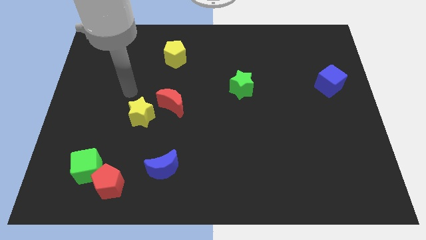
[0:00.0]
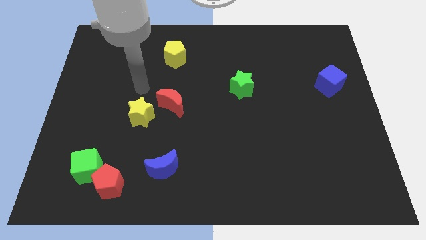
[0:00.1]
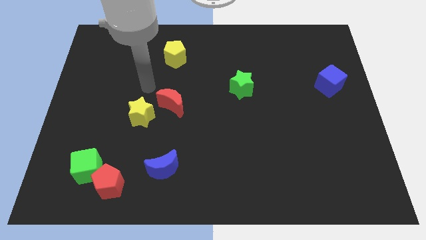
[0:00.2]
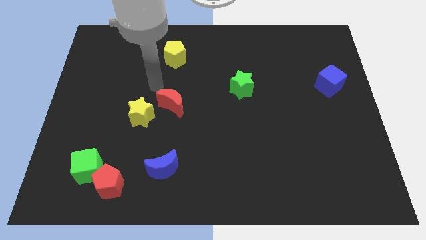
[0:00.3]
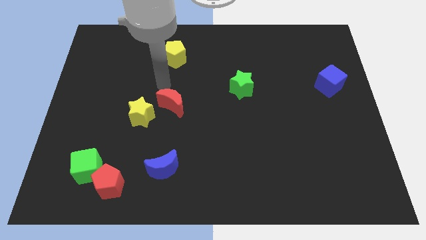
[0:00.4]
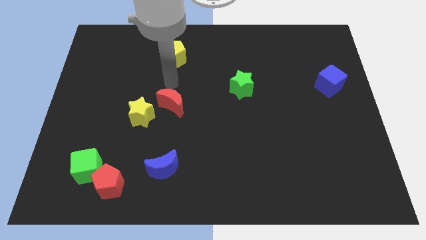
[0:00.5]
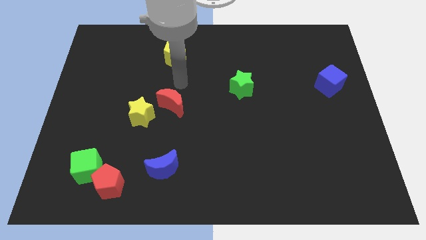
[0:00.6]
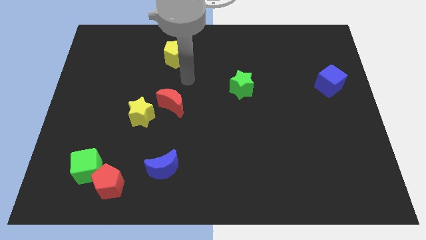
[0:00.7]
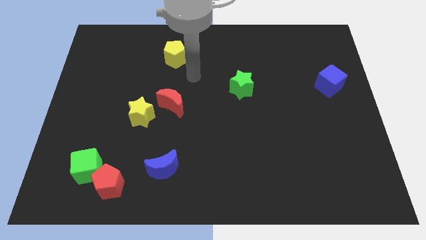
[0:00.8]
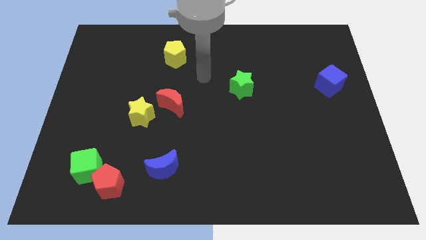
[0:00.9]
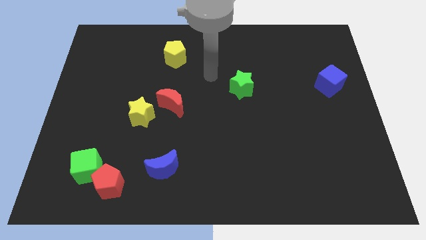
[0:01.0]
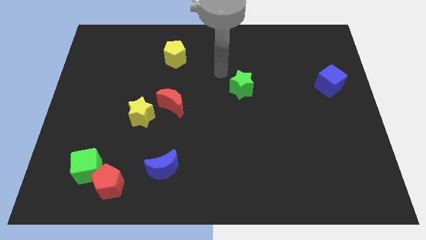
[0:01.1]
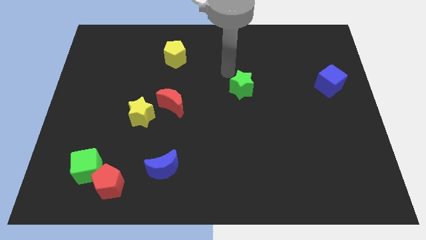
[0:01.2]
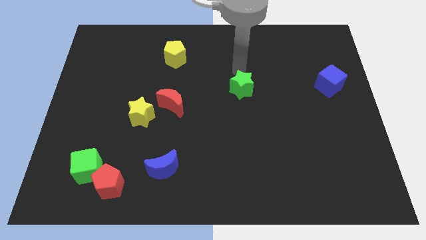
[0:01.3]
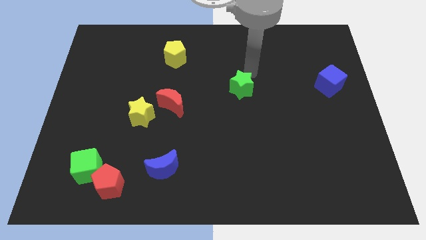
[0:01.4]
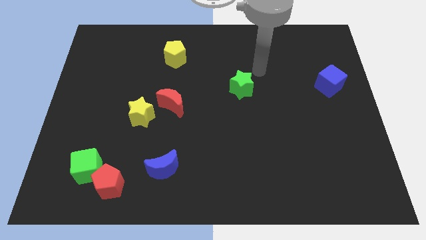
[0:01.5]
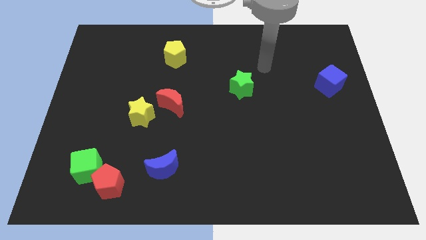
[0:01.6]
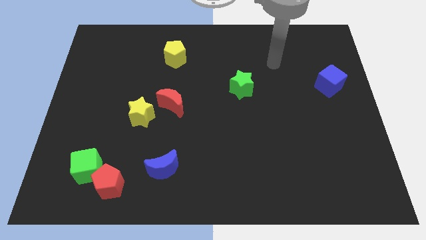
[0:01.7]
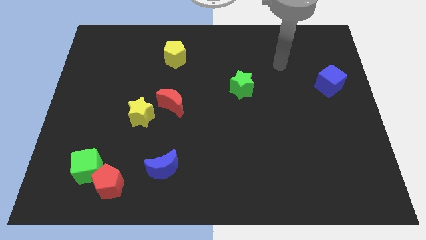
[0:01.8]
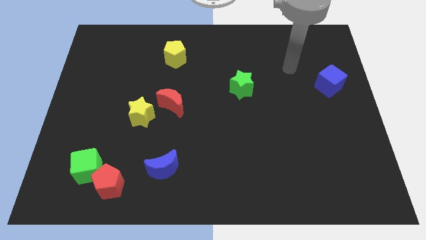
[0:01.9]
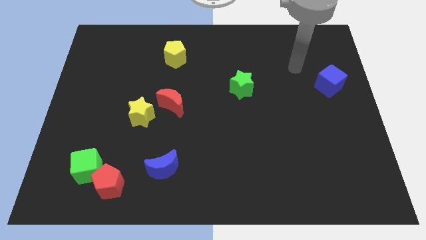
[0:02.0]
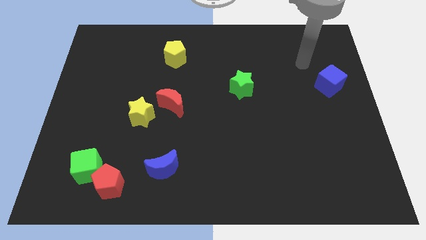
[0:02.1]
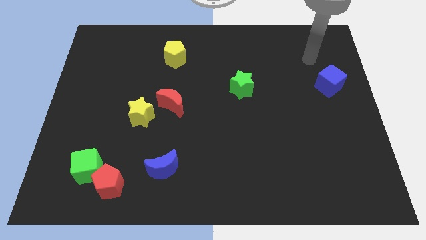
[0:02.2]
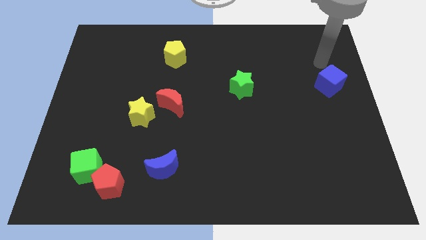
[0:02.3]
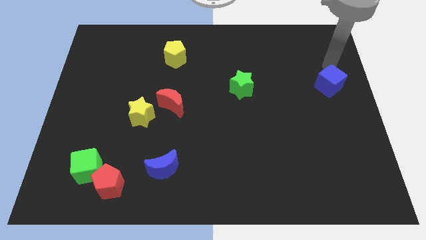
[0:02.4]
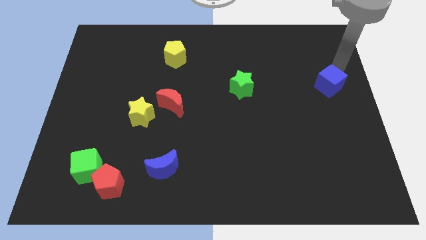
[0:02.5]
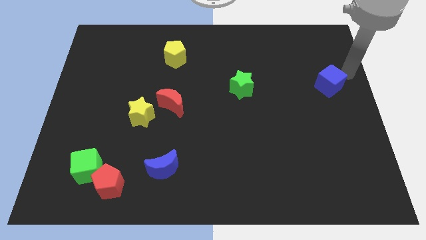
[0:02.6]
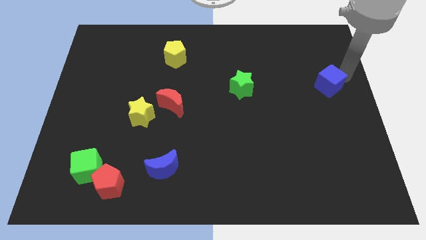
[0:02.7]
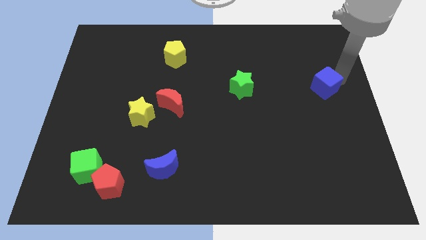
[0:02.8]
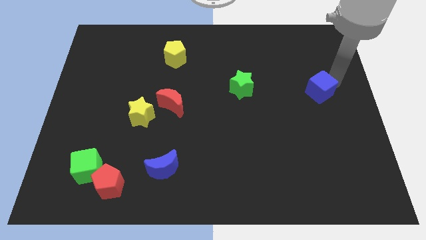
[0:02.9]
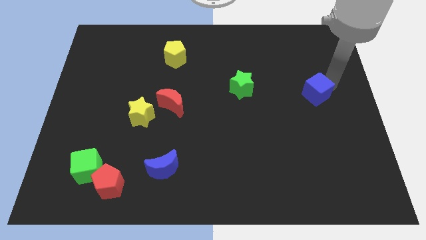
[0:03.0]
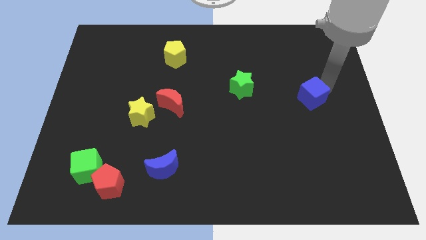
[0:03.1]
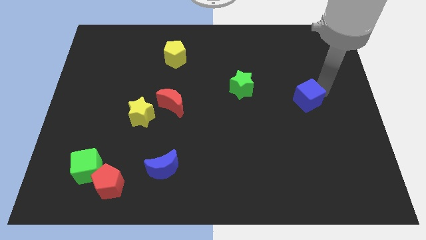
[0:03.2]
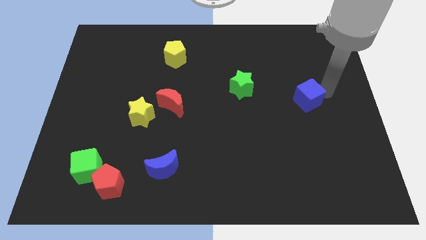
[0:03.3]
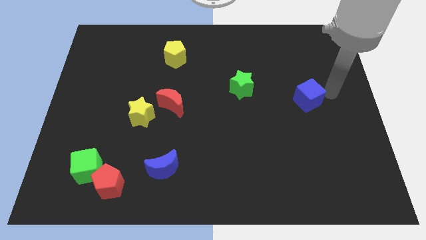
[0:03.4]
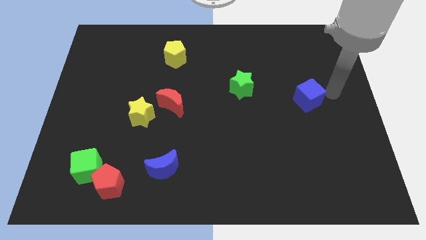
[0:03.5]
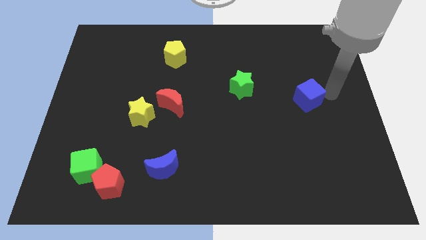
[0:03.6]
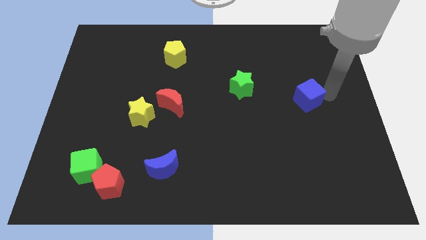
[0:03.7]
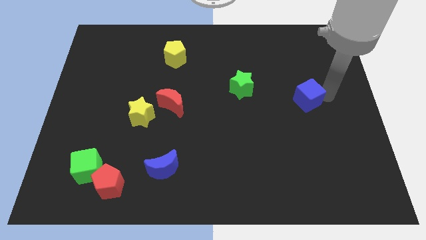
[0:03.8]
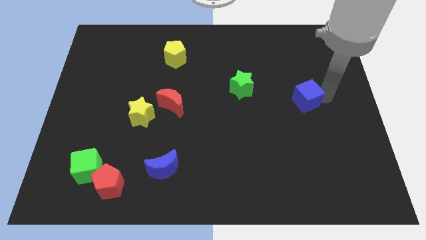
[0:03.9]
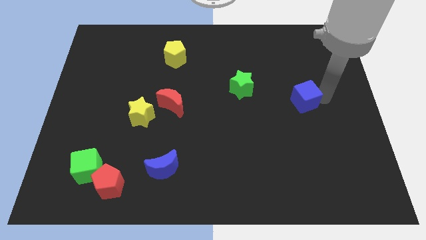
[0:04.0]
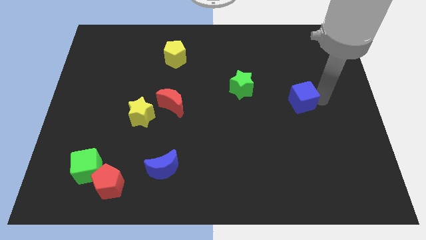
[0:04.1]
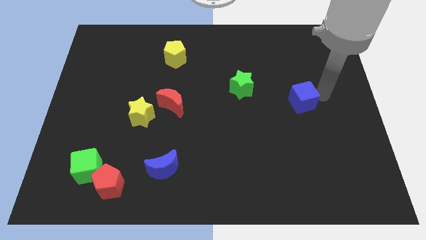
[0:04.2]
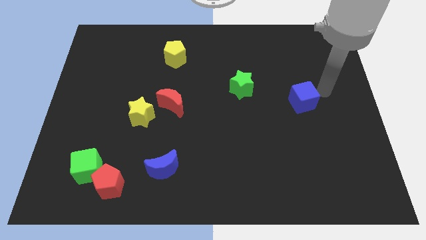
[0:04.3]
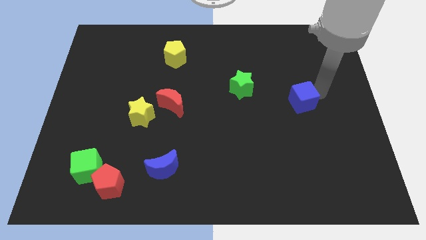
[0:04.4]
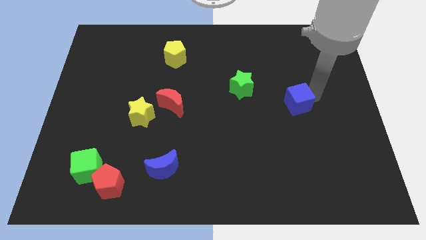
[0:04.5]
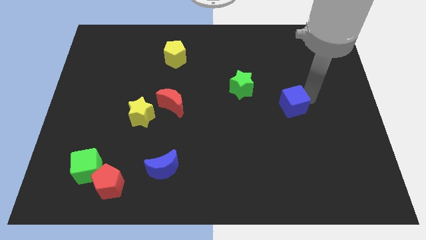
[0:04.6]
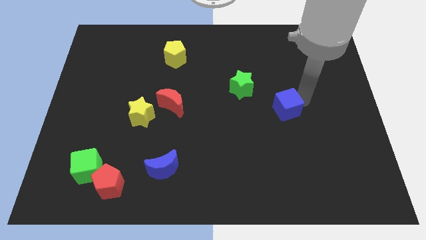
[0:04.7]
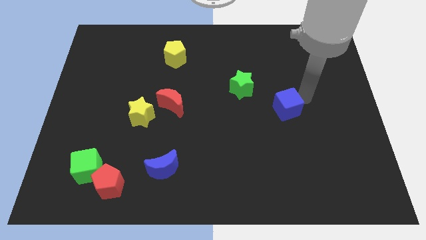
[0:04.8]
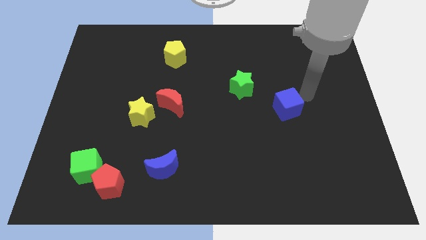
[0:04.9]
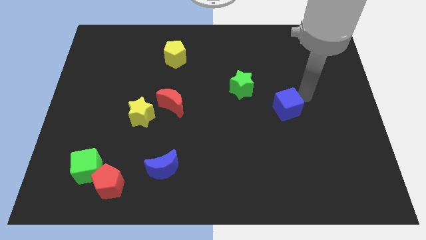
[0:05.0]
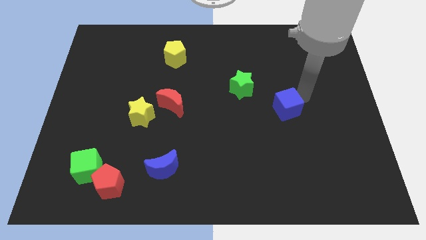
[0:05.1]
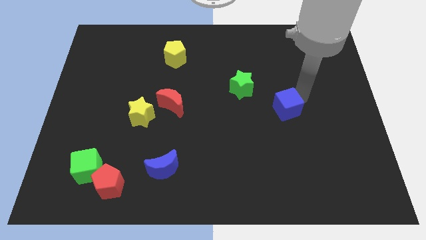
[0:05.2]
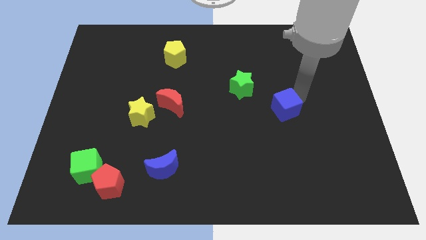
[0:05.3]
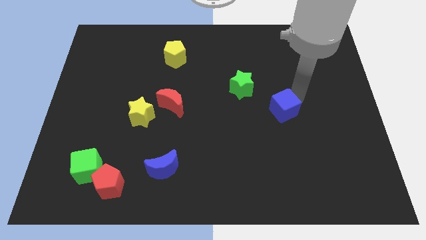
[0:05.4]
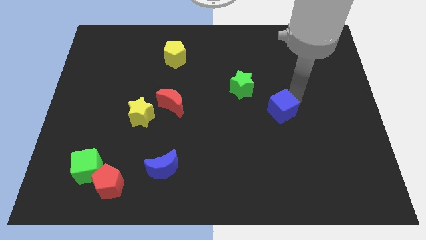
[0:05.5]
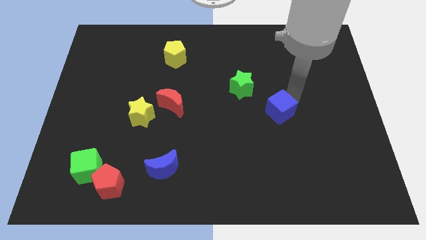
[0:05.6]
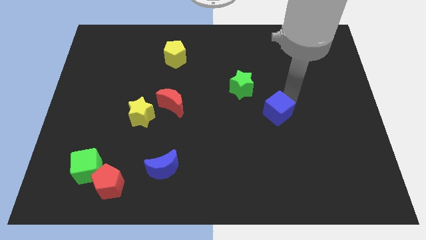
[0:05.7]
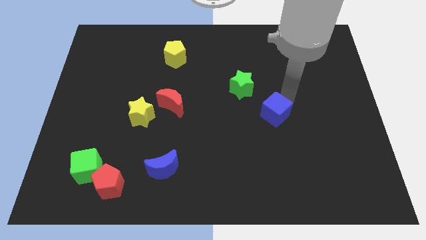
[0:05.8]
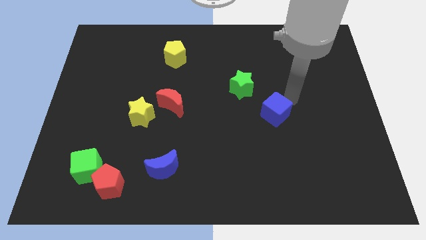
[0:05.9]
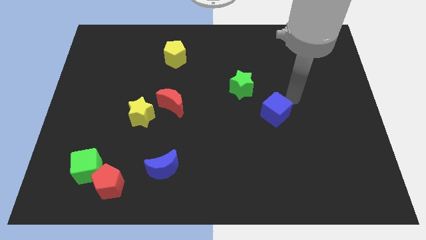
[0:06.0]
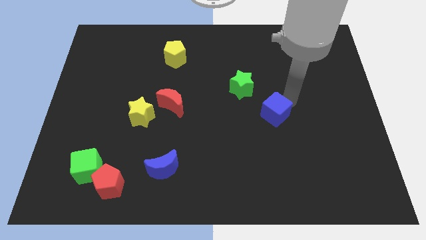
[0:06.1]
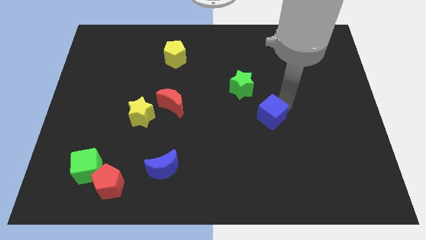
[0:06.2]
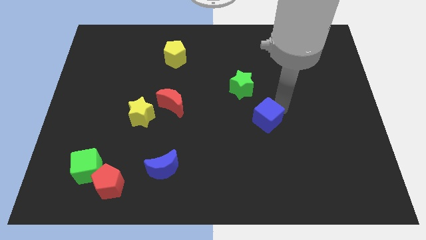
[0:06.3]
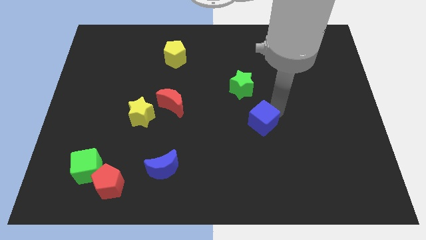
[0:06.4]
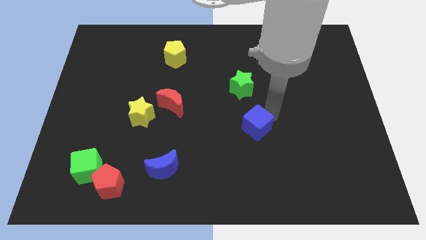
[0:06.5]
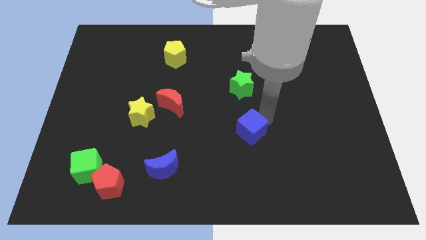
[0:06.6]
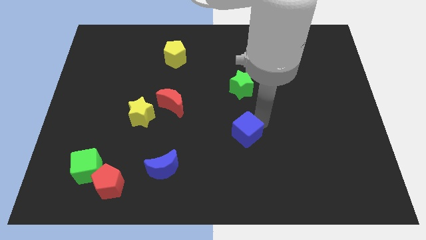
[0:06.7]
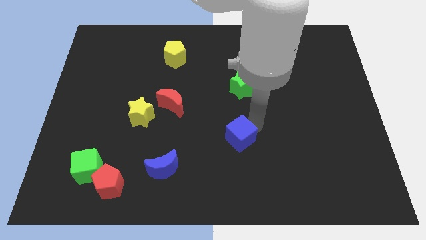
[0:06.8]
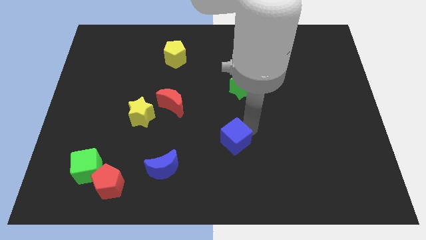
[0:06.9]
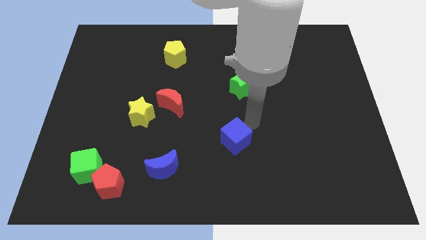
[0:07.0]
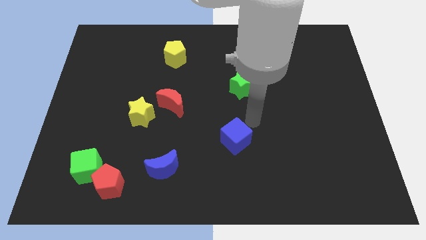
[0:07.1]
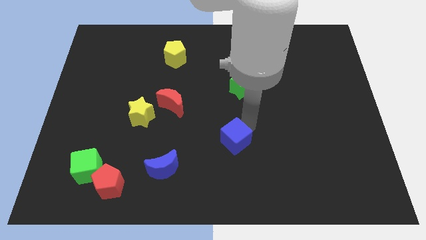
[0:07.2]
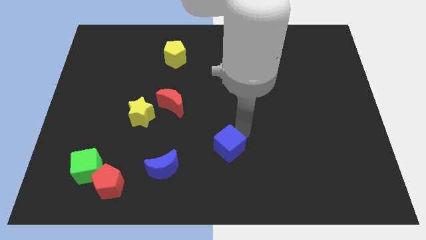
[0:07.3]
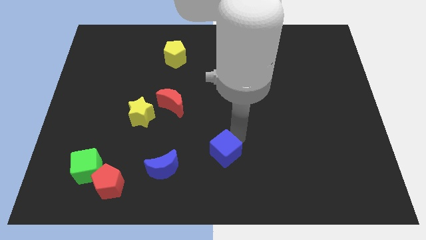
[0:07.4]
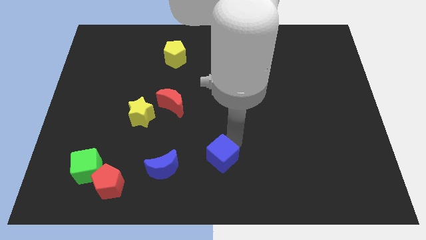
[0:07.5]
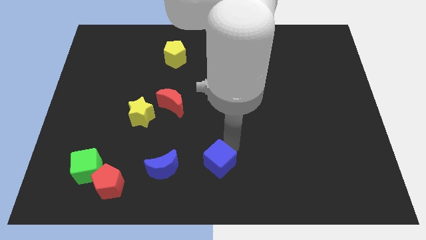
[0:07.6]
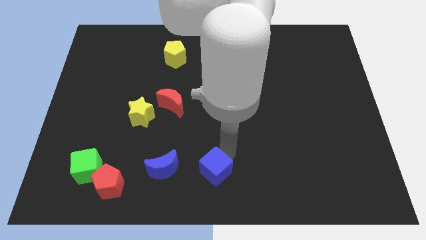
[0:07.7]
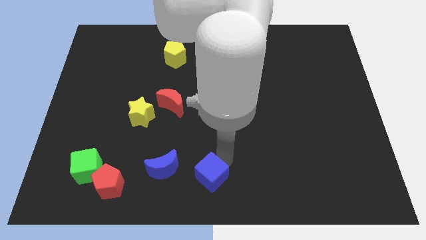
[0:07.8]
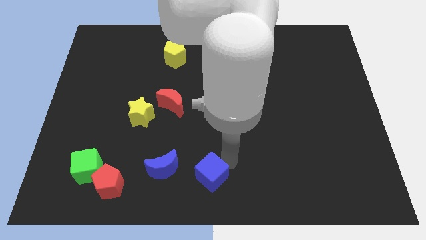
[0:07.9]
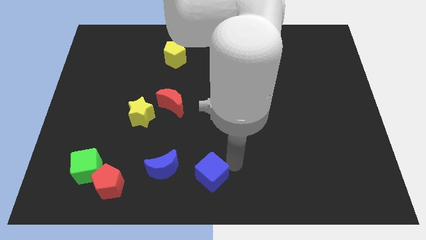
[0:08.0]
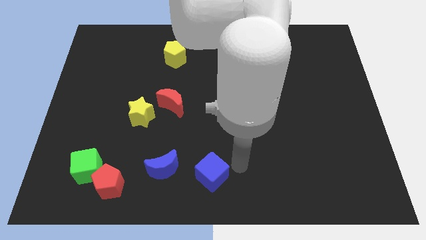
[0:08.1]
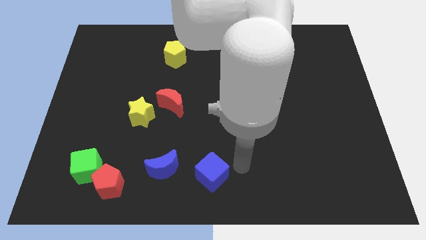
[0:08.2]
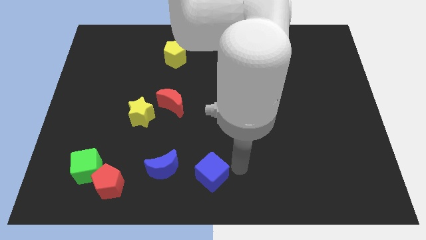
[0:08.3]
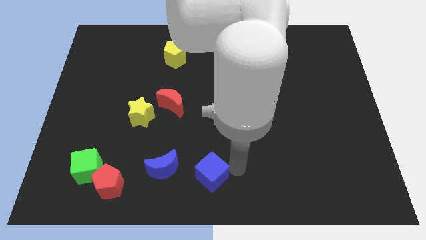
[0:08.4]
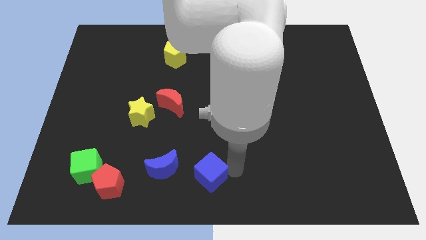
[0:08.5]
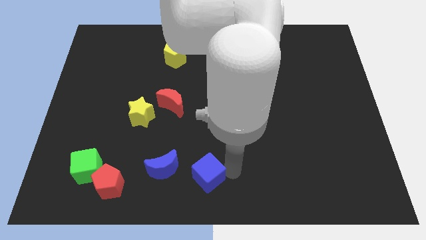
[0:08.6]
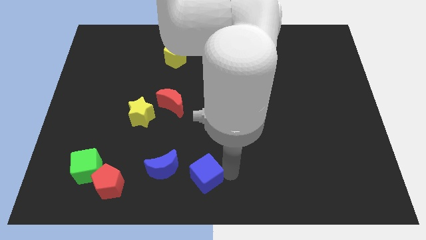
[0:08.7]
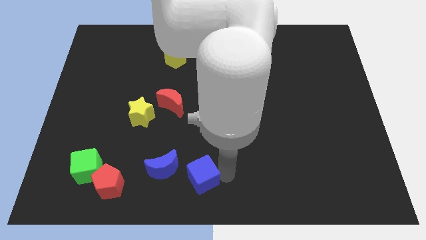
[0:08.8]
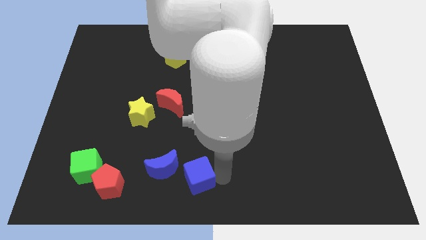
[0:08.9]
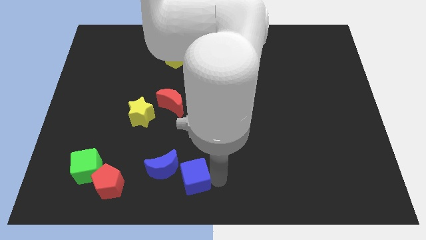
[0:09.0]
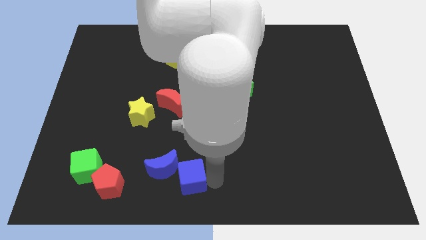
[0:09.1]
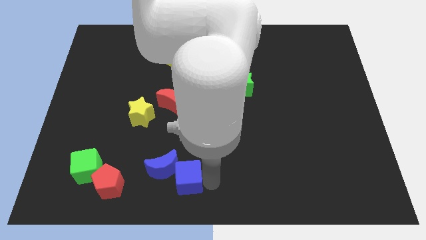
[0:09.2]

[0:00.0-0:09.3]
slide the blue cube right of the red pentagon
